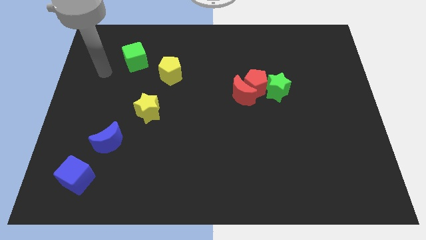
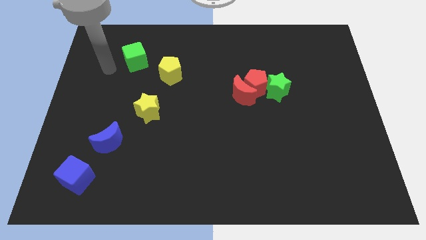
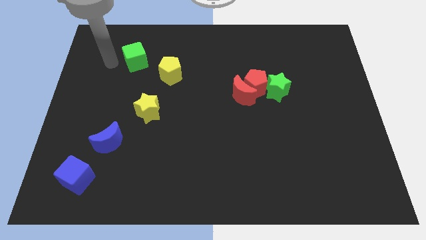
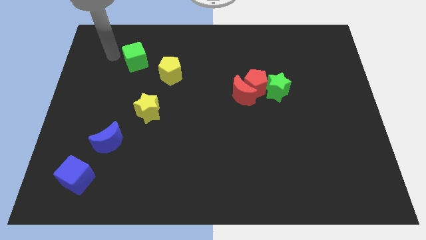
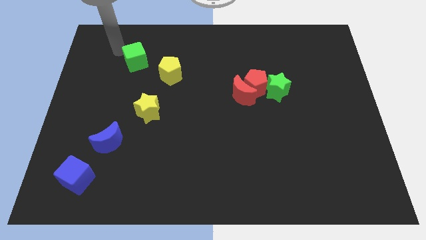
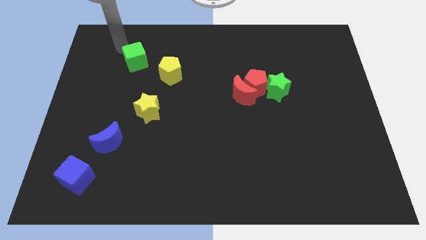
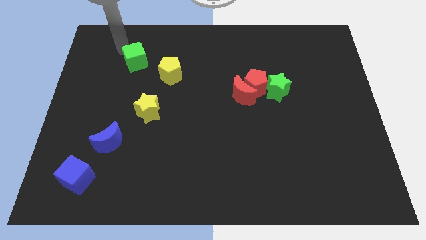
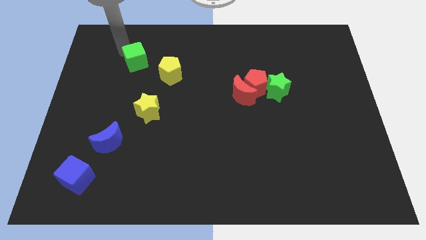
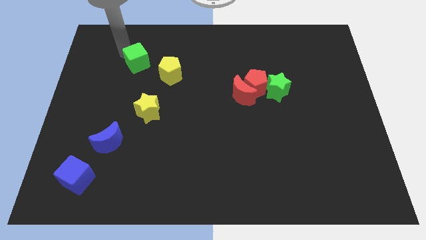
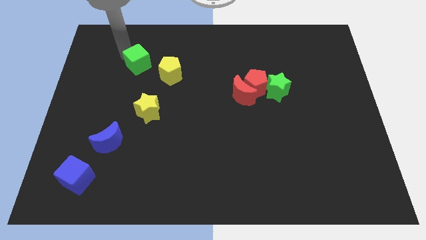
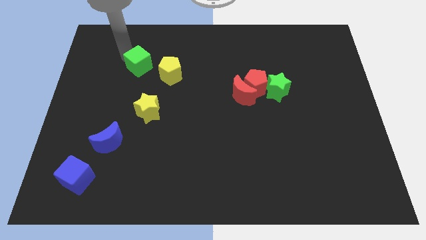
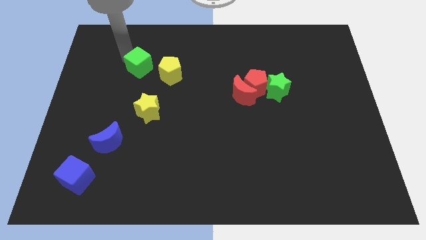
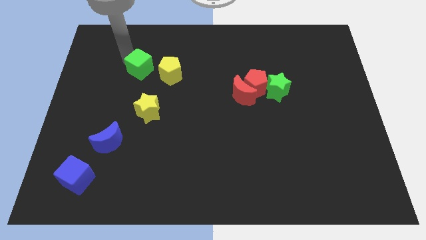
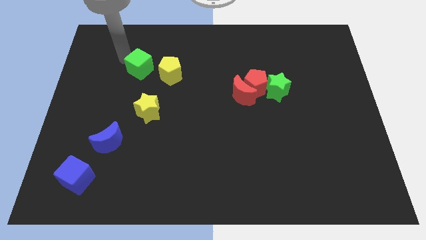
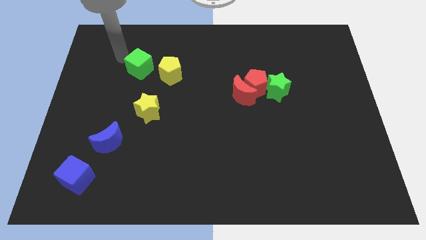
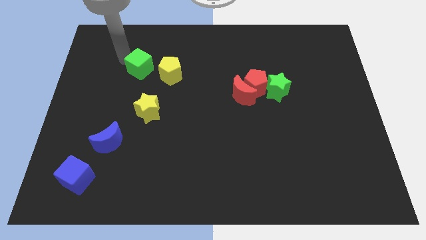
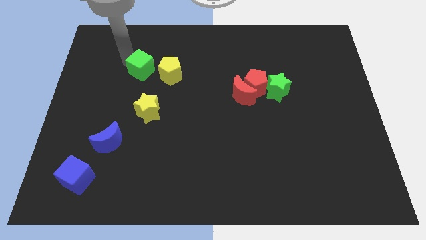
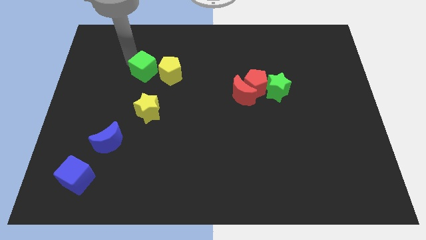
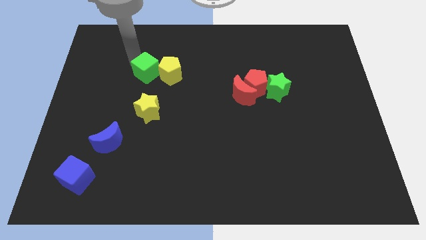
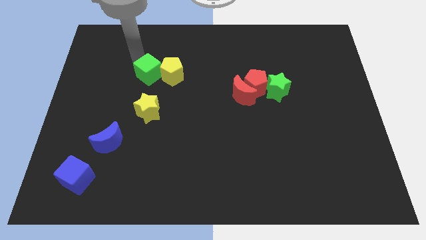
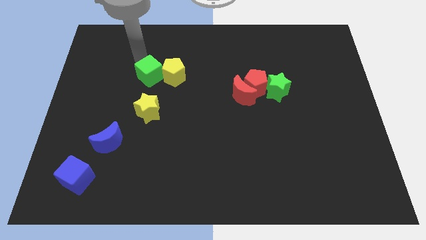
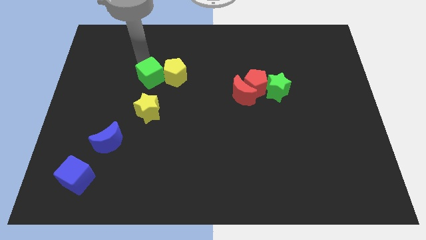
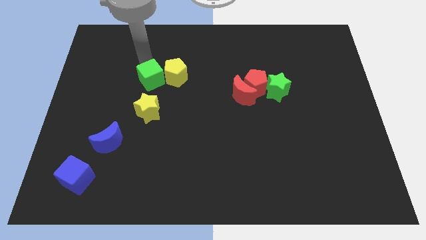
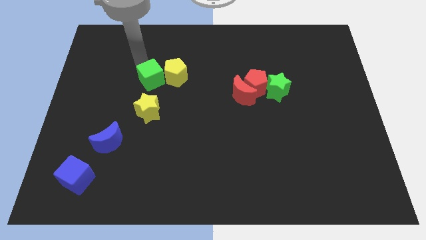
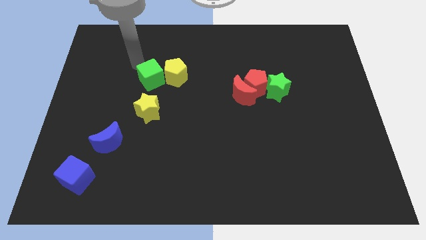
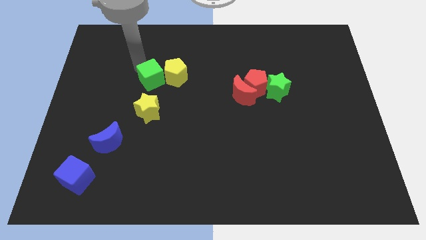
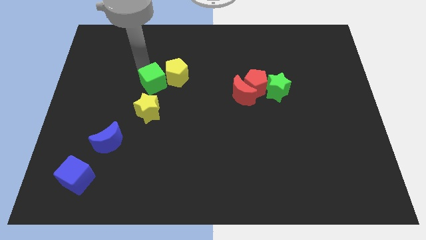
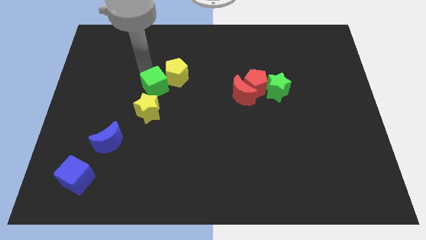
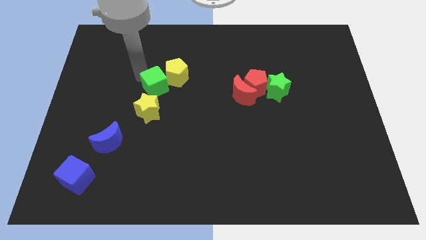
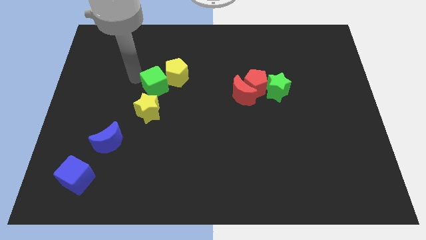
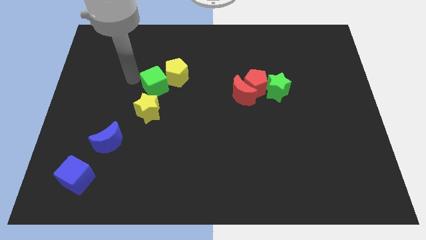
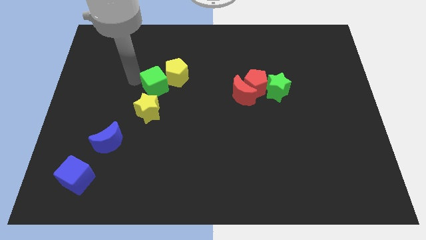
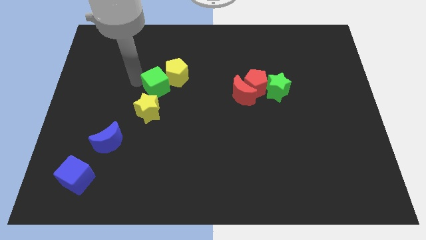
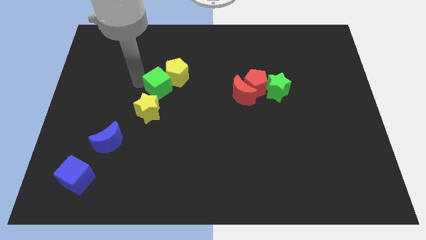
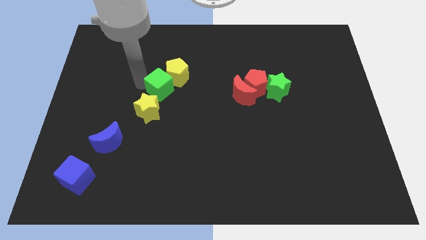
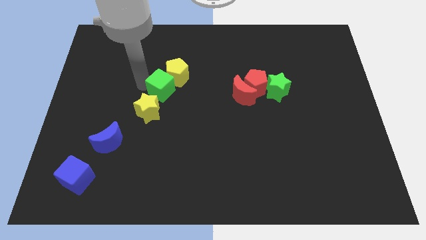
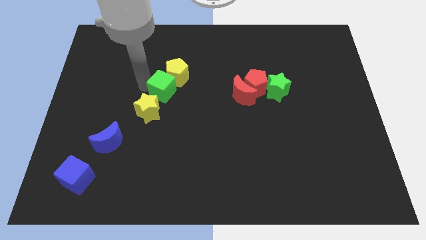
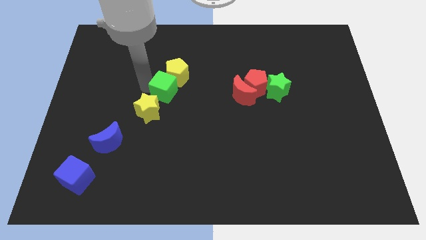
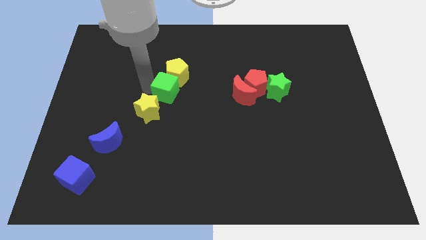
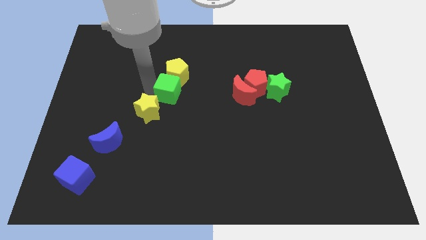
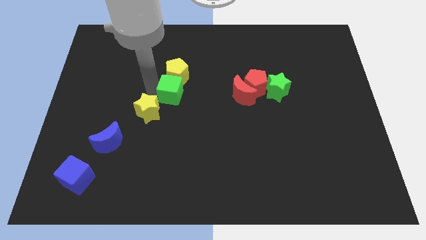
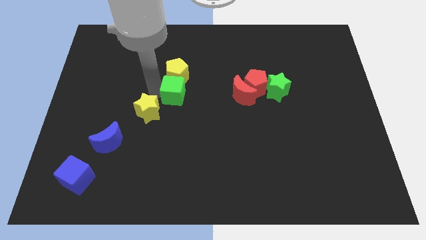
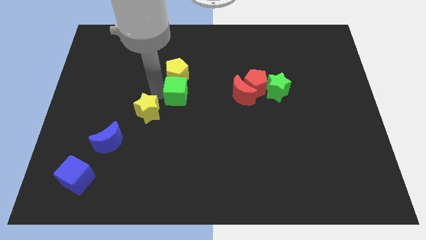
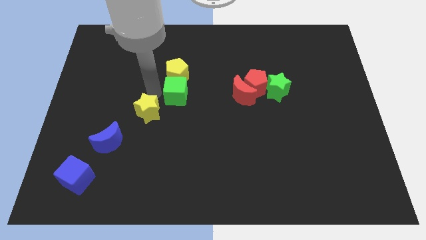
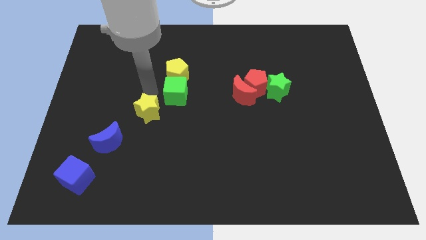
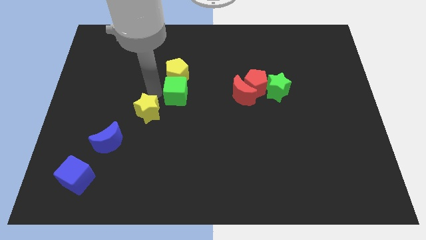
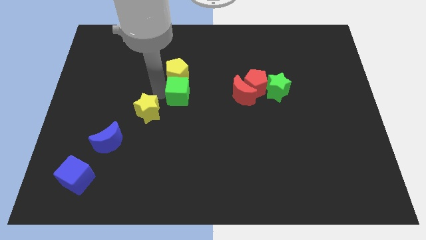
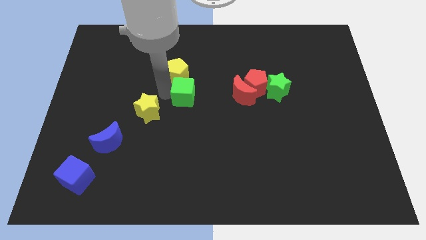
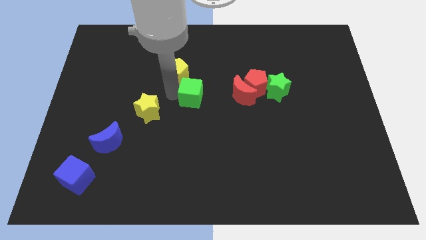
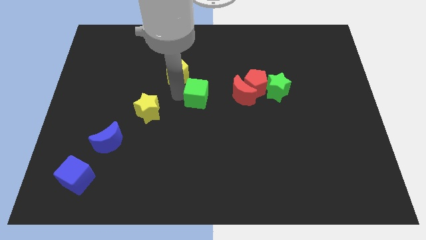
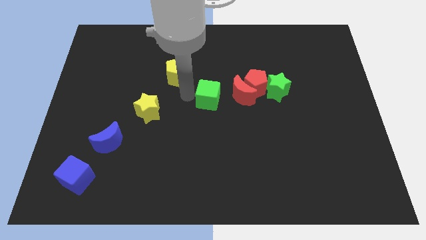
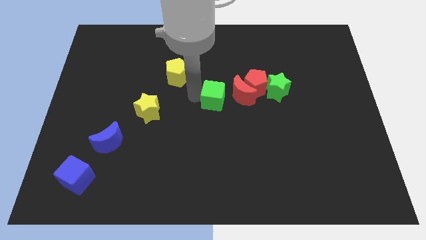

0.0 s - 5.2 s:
move the green cube to the bottom left of the red pentagon

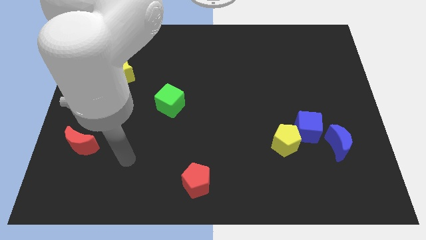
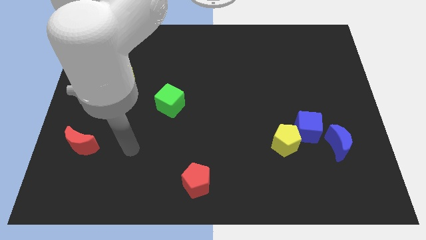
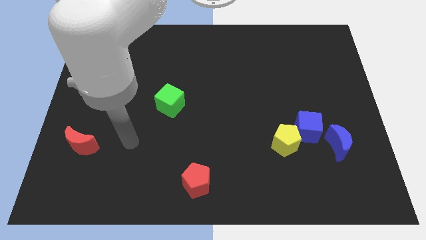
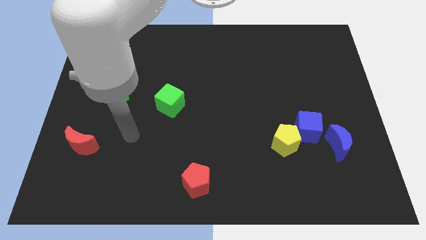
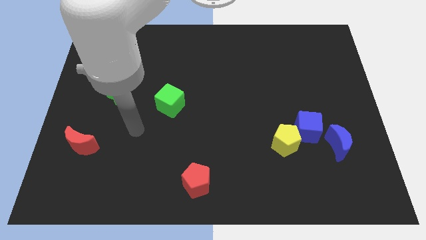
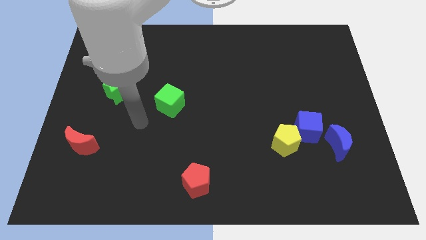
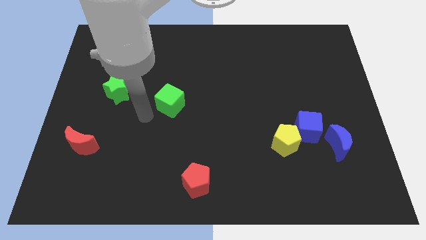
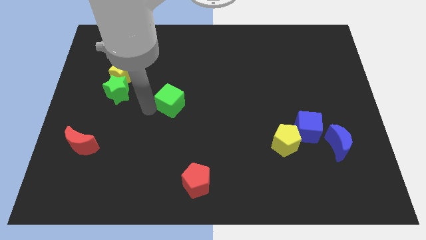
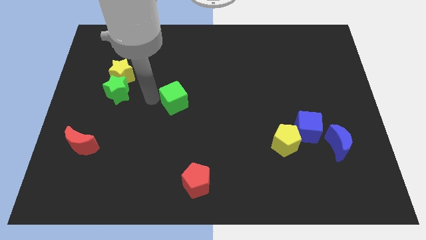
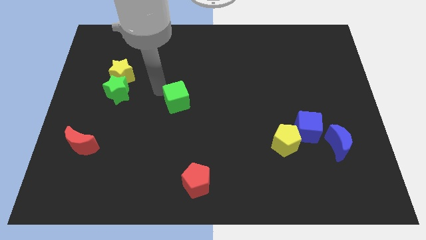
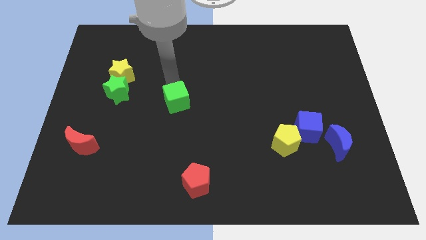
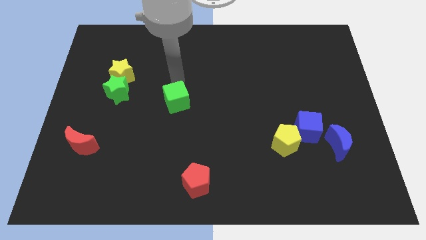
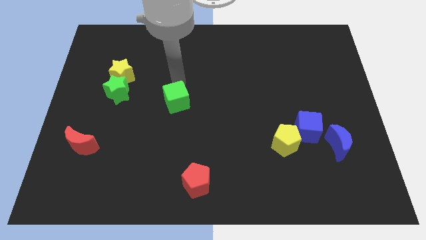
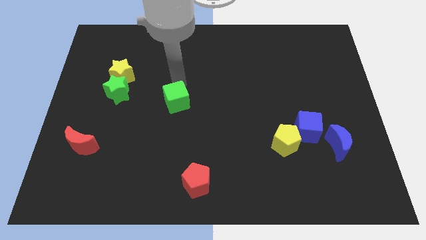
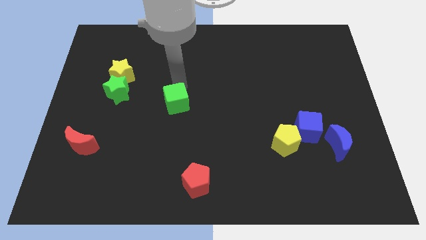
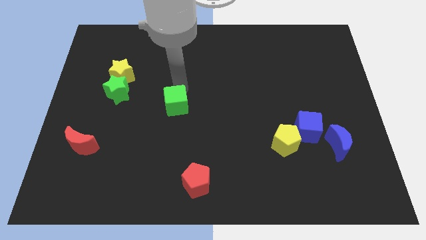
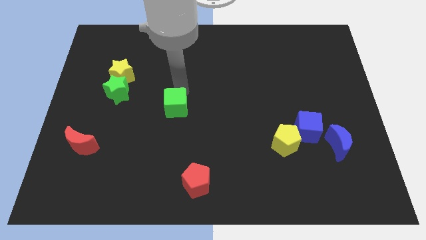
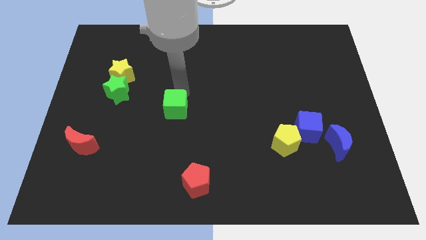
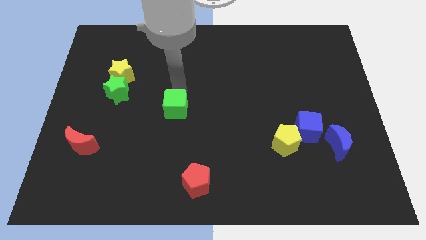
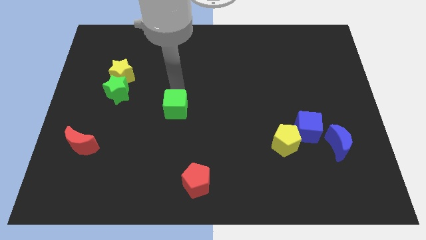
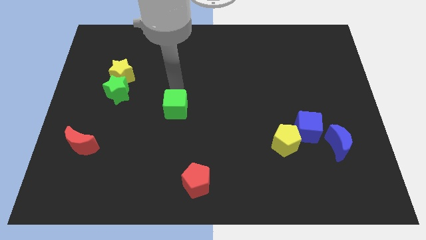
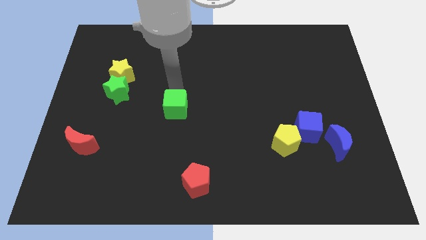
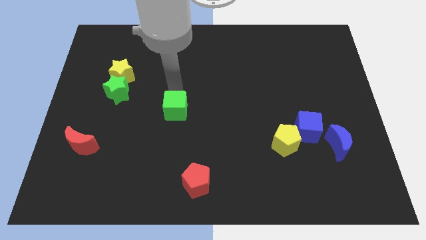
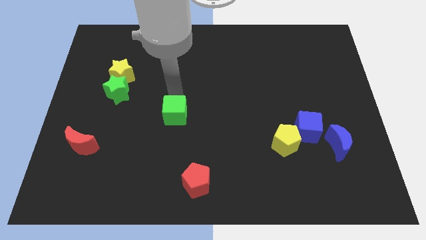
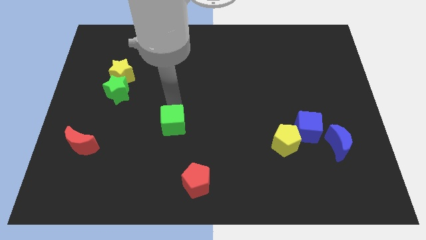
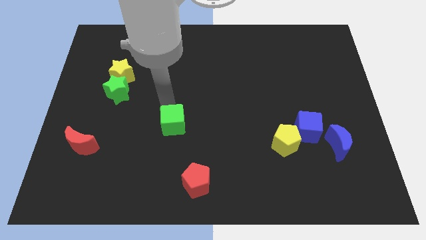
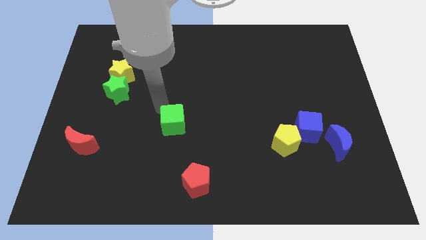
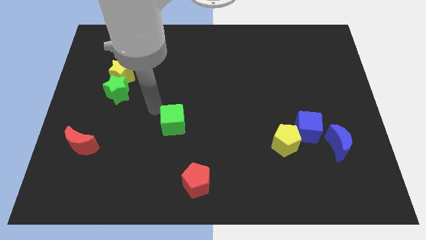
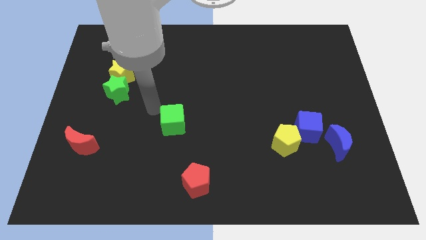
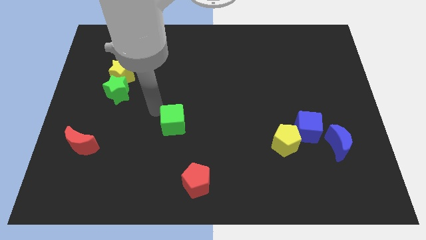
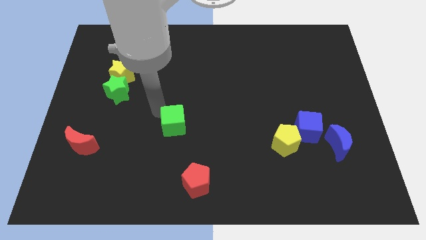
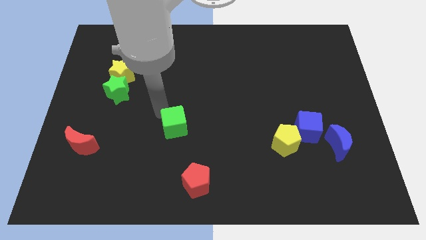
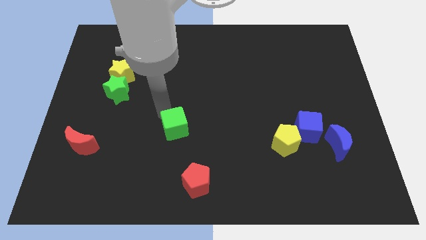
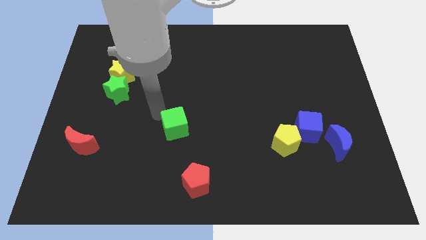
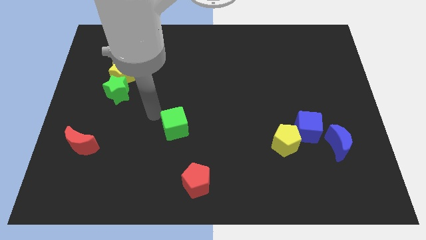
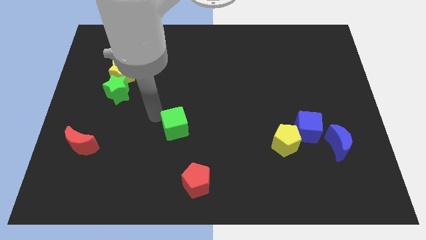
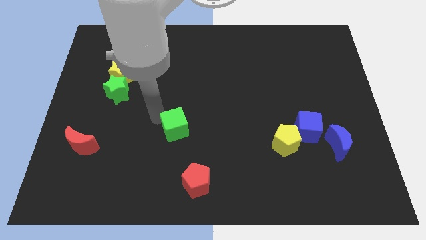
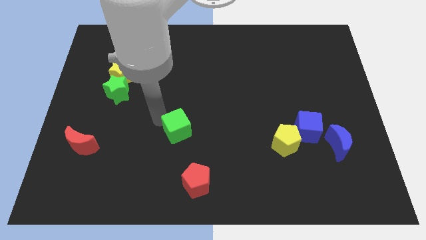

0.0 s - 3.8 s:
push the green cube to the top side of the red pentagon
